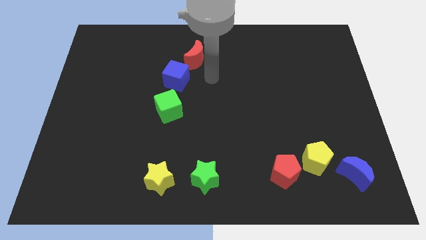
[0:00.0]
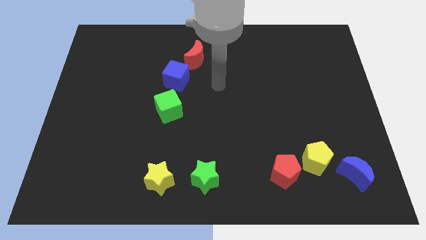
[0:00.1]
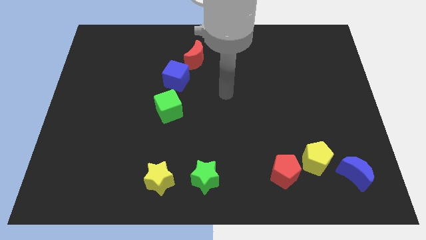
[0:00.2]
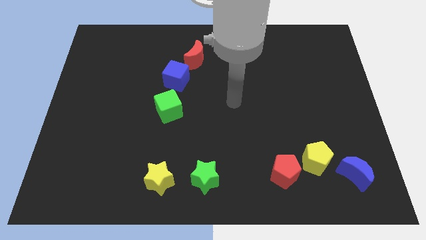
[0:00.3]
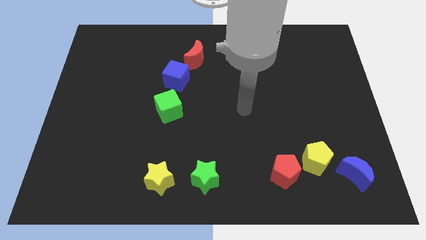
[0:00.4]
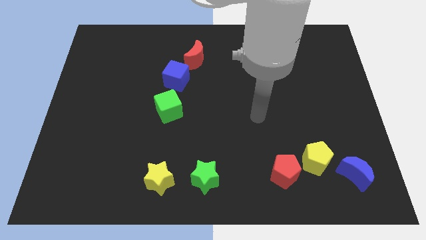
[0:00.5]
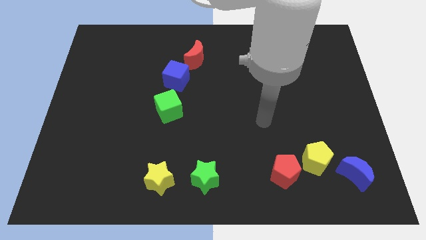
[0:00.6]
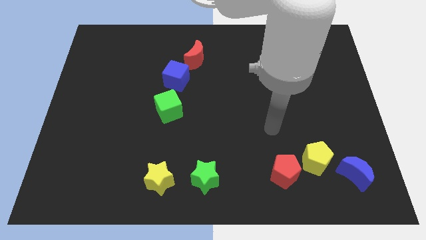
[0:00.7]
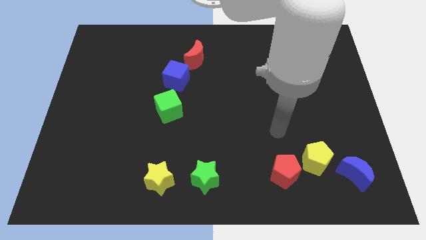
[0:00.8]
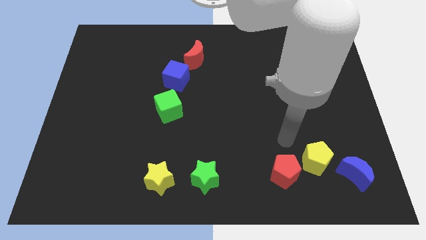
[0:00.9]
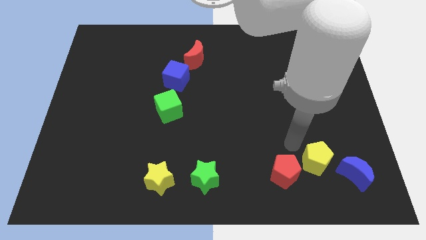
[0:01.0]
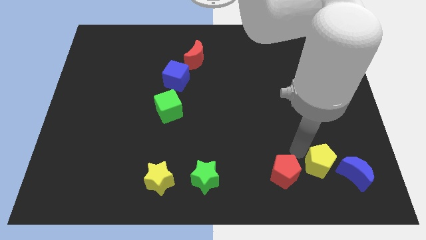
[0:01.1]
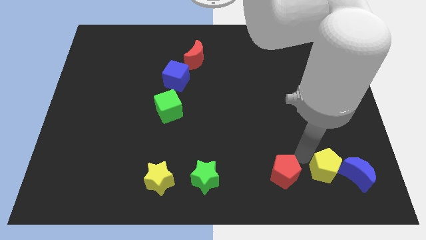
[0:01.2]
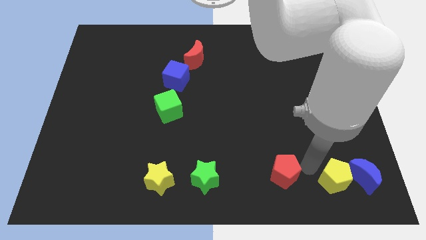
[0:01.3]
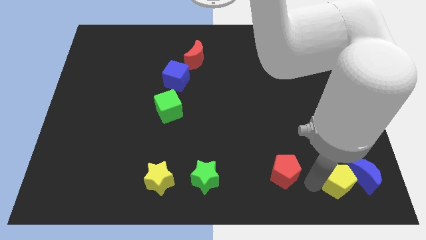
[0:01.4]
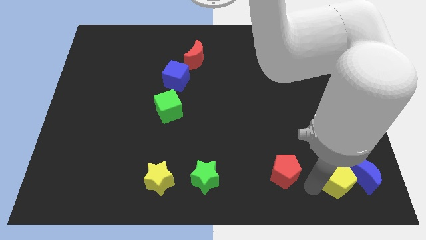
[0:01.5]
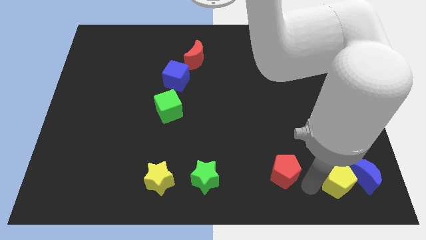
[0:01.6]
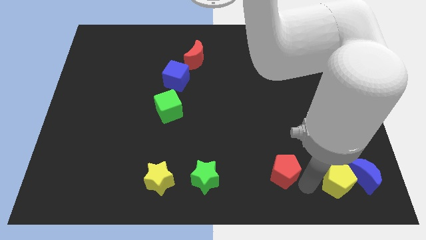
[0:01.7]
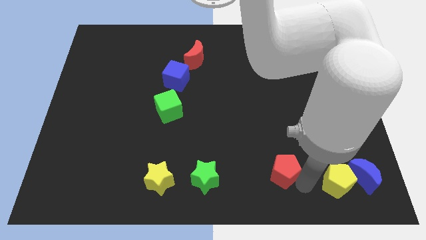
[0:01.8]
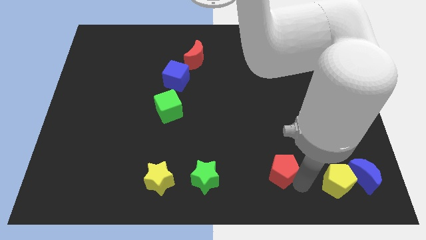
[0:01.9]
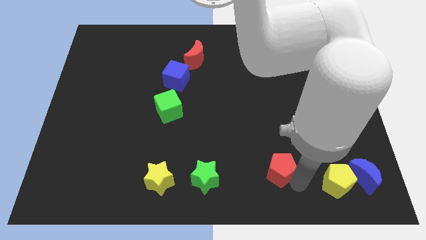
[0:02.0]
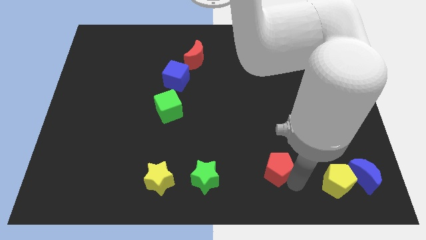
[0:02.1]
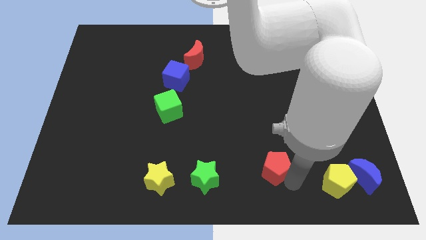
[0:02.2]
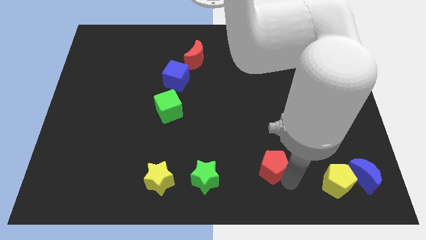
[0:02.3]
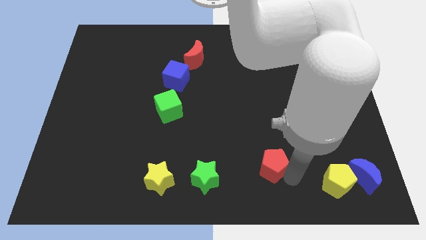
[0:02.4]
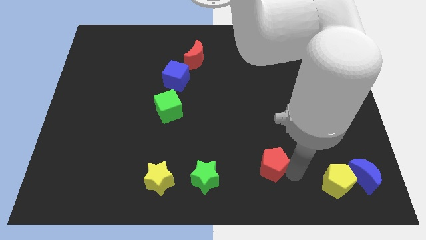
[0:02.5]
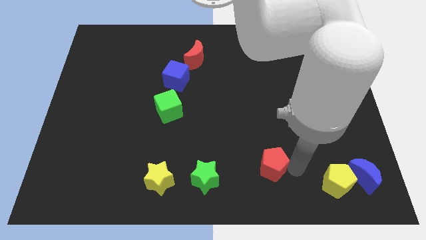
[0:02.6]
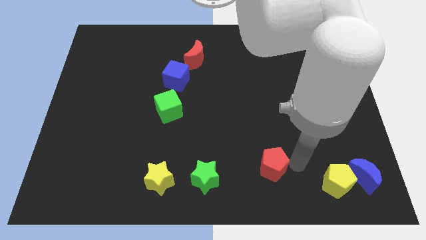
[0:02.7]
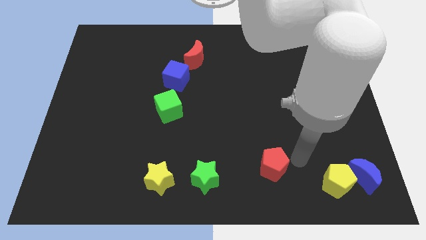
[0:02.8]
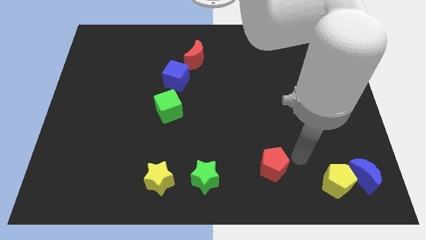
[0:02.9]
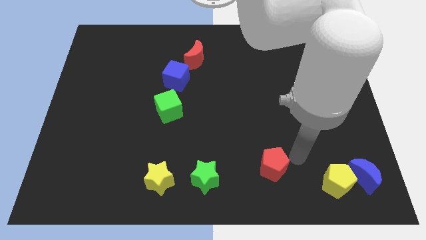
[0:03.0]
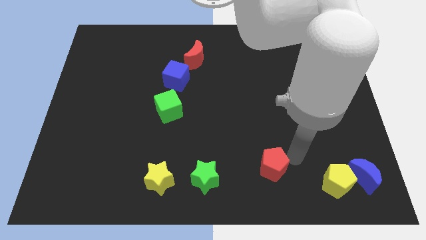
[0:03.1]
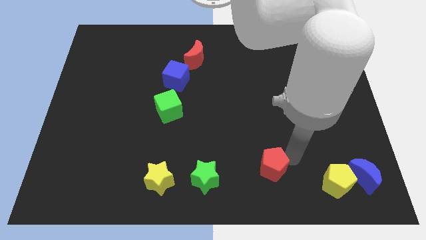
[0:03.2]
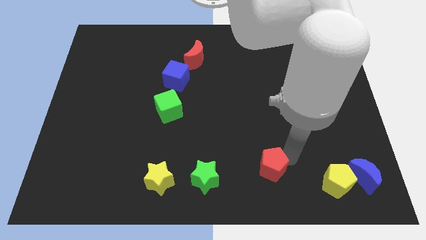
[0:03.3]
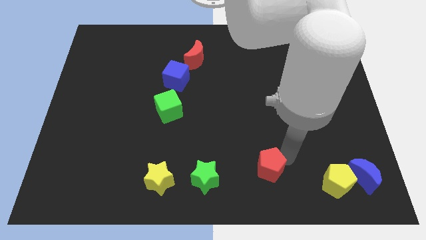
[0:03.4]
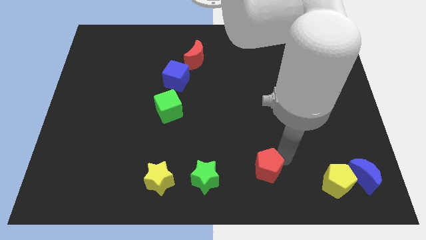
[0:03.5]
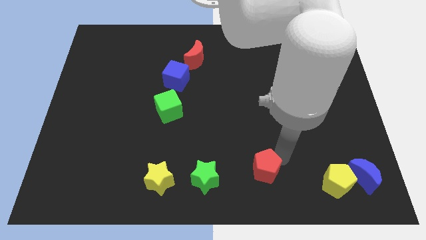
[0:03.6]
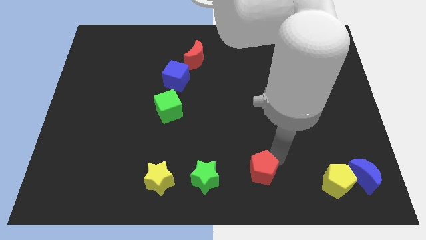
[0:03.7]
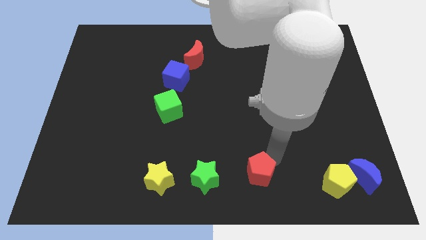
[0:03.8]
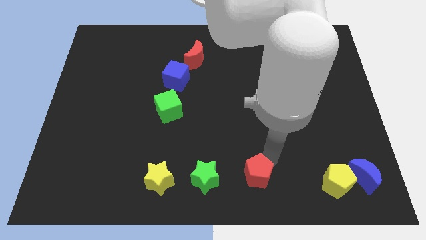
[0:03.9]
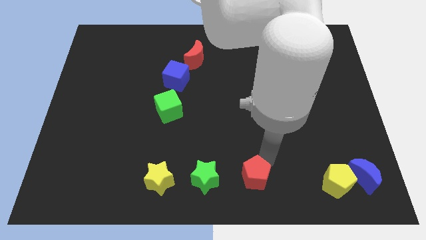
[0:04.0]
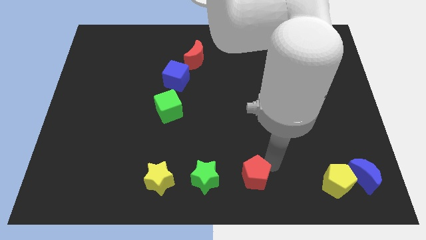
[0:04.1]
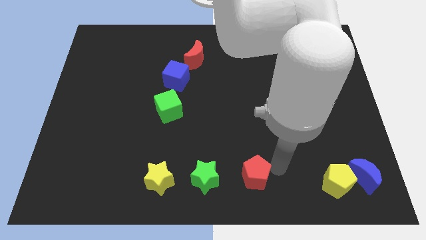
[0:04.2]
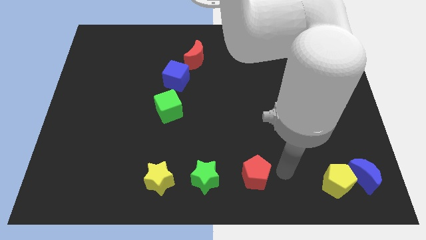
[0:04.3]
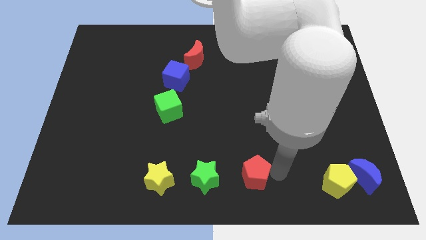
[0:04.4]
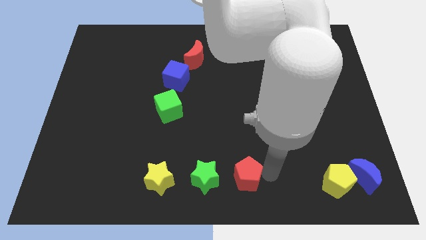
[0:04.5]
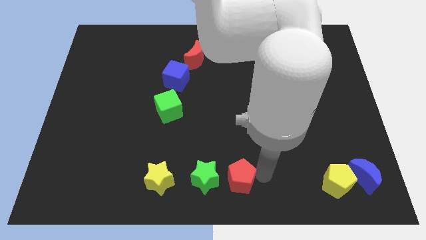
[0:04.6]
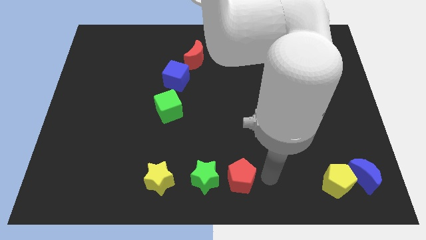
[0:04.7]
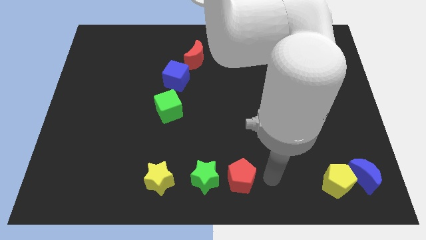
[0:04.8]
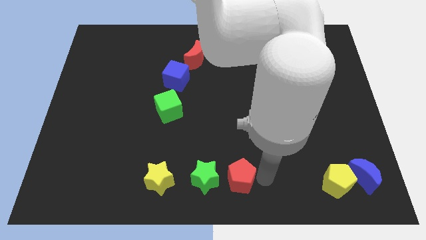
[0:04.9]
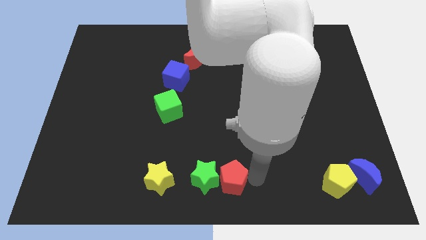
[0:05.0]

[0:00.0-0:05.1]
push the red pentagon next to the green star

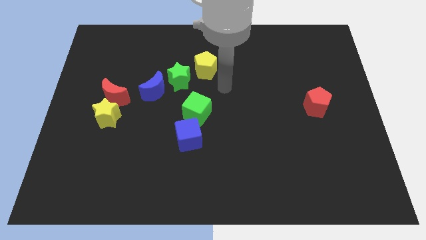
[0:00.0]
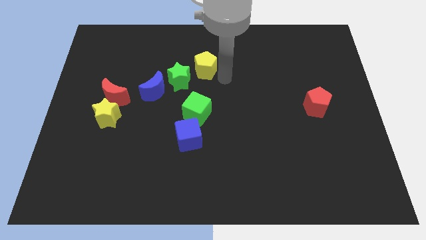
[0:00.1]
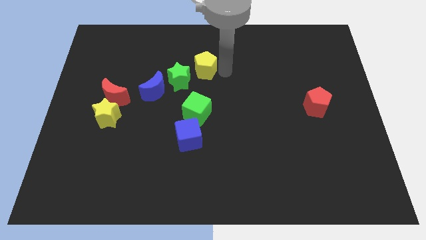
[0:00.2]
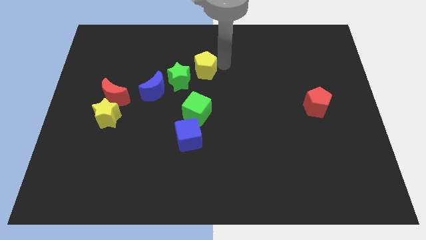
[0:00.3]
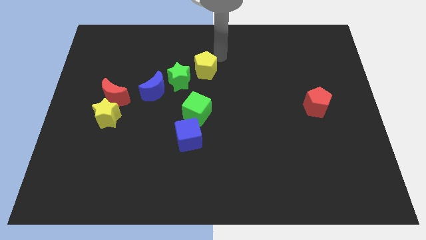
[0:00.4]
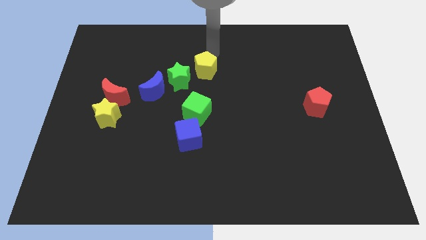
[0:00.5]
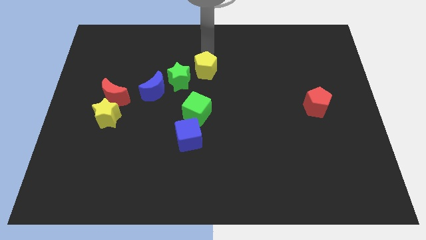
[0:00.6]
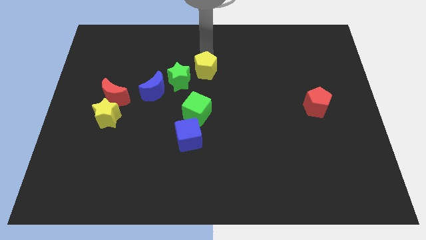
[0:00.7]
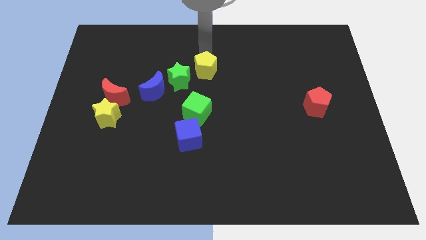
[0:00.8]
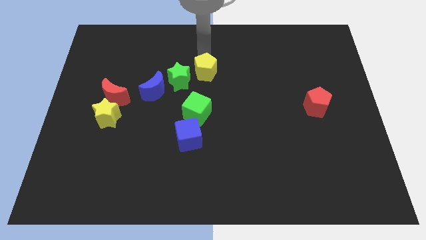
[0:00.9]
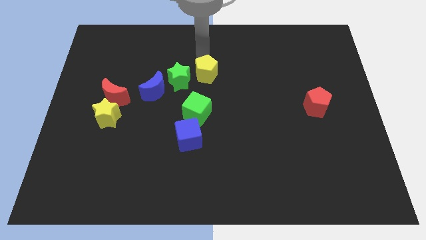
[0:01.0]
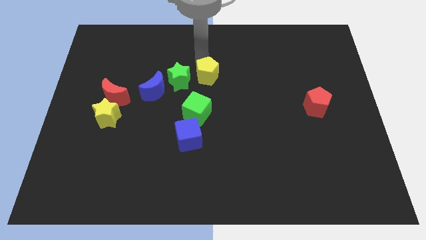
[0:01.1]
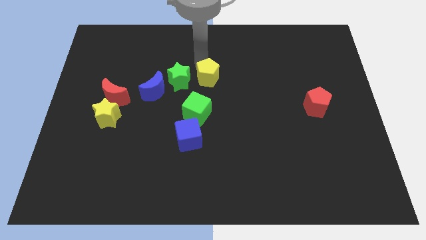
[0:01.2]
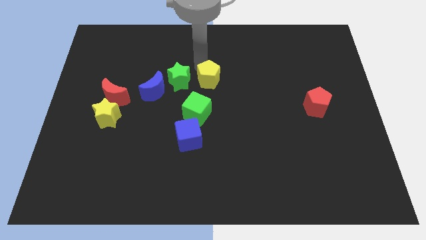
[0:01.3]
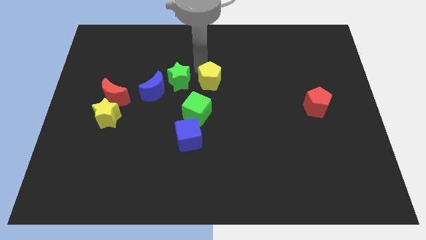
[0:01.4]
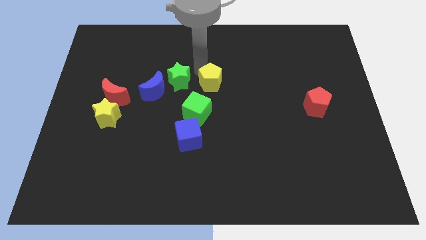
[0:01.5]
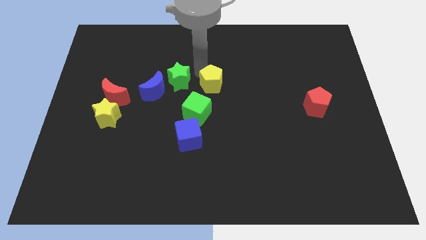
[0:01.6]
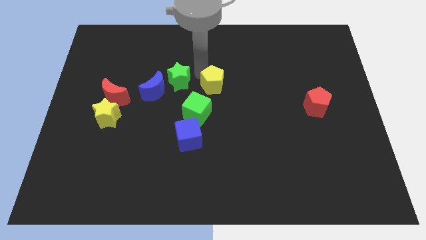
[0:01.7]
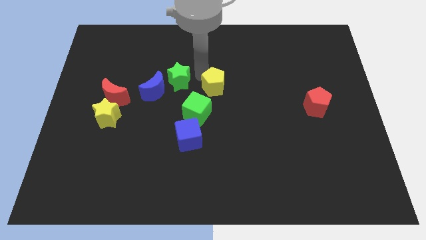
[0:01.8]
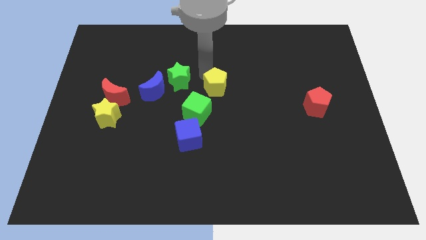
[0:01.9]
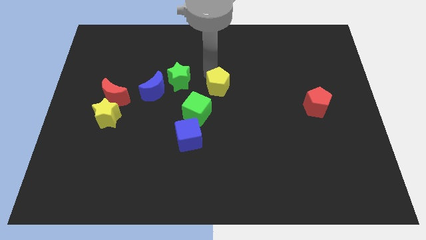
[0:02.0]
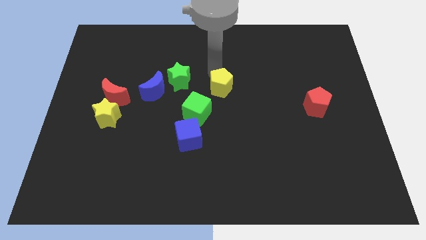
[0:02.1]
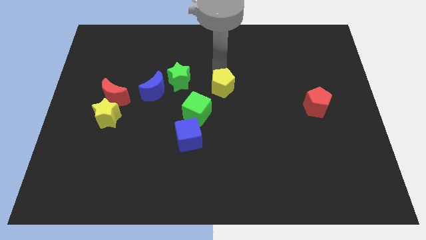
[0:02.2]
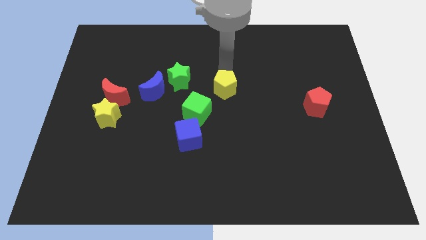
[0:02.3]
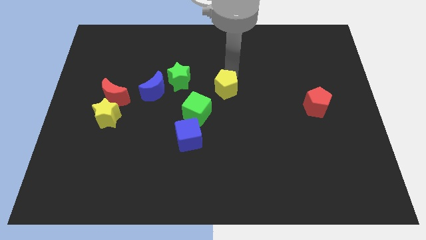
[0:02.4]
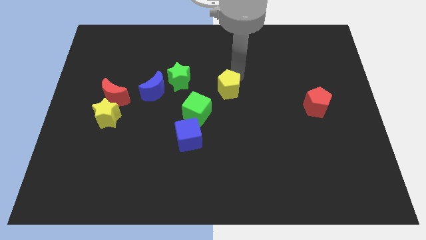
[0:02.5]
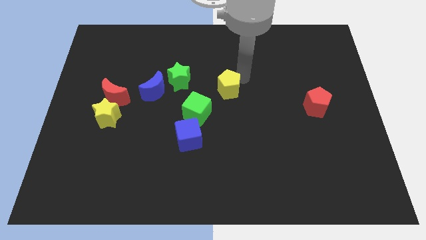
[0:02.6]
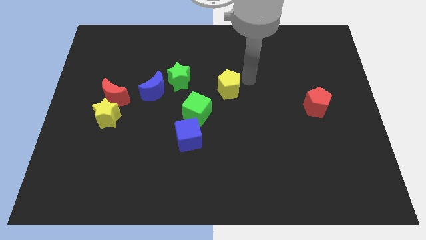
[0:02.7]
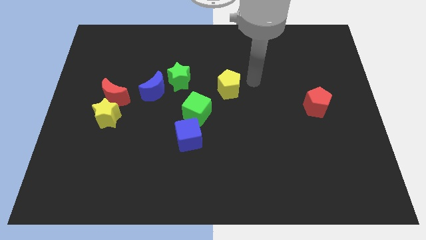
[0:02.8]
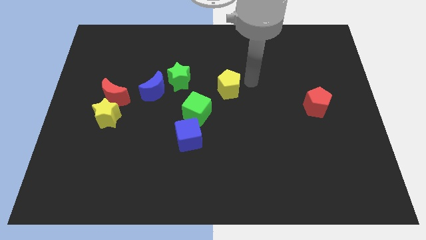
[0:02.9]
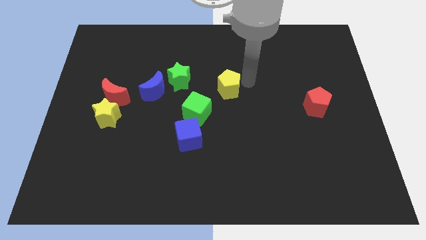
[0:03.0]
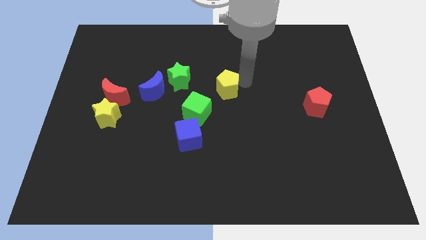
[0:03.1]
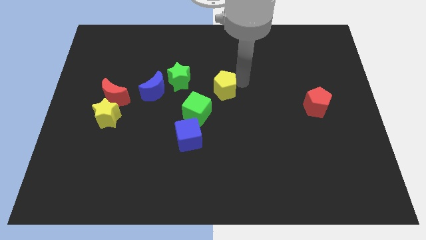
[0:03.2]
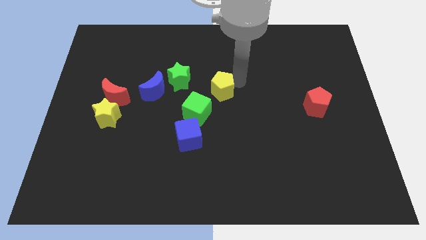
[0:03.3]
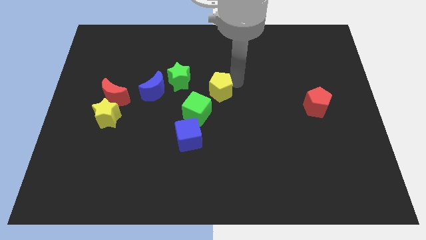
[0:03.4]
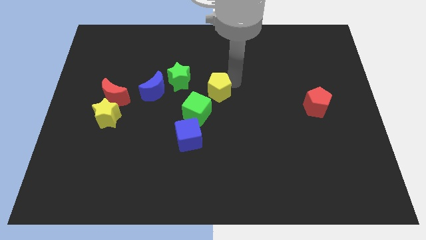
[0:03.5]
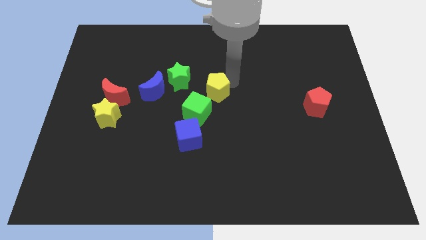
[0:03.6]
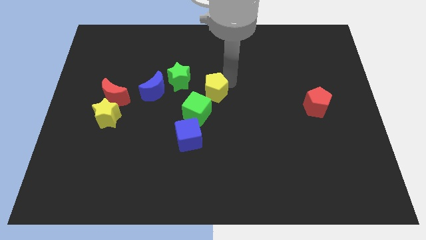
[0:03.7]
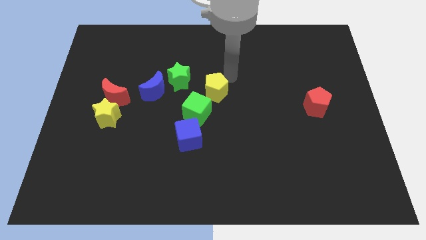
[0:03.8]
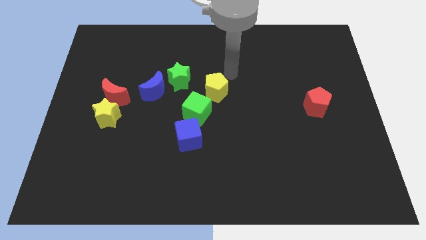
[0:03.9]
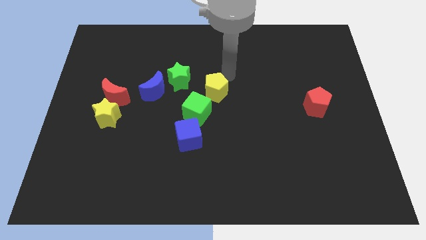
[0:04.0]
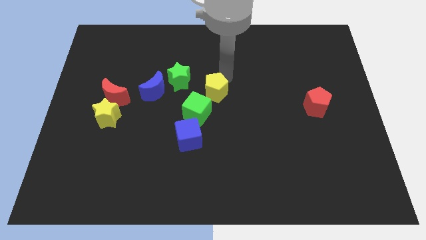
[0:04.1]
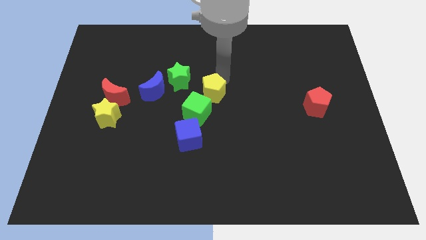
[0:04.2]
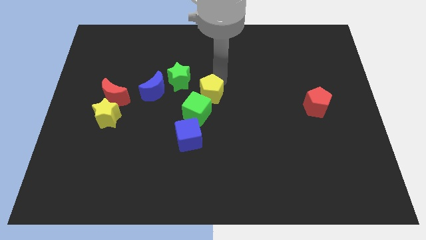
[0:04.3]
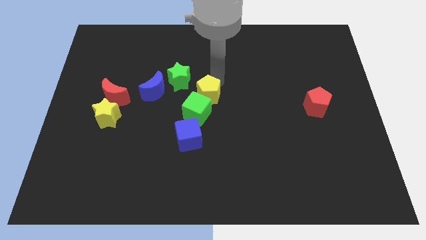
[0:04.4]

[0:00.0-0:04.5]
put the yellow pentagon next to the green cube
